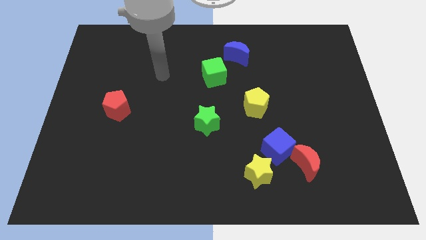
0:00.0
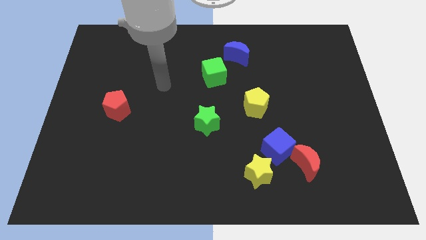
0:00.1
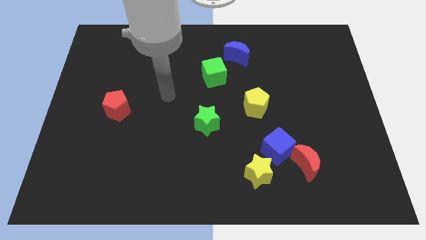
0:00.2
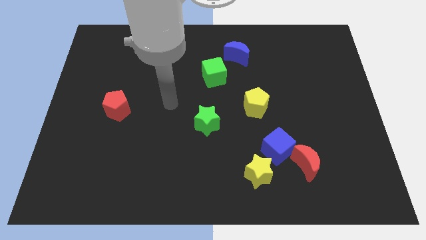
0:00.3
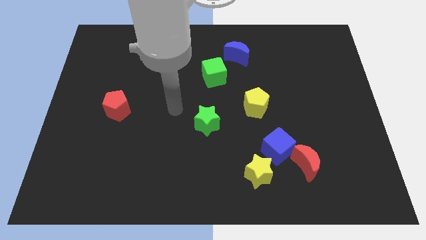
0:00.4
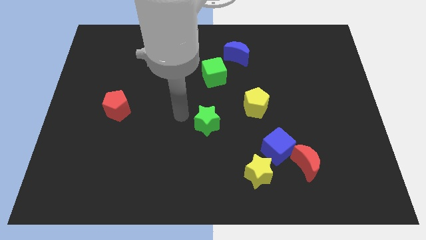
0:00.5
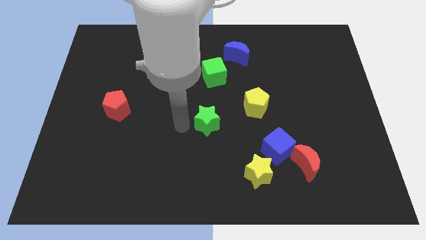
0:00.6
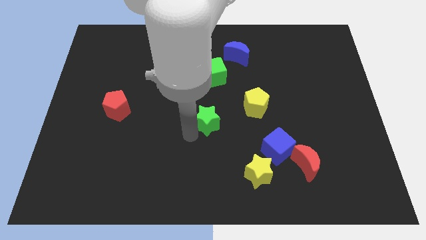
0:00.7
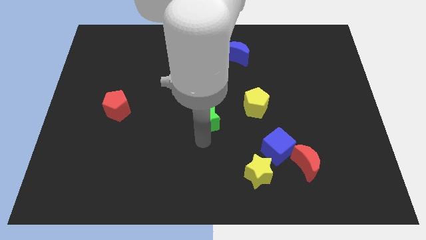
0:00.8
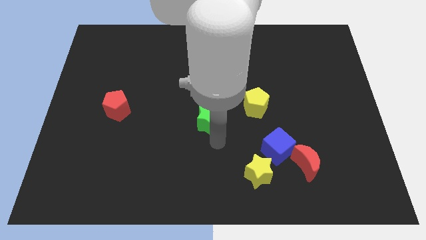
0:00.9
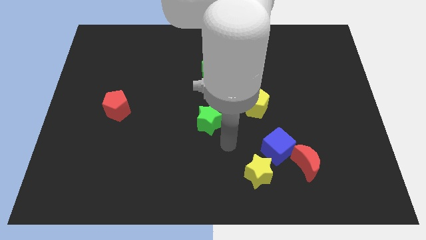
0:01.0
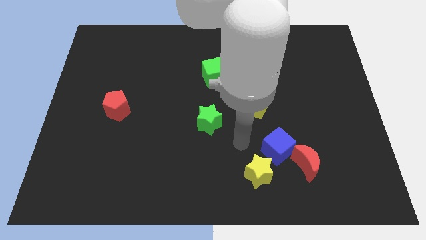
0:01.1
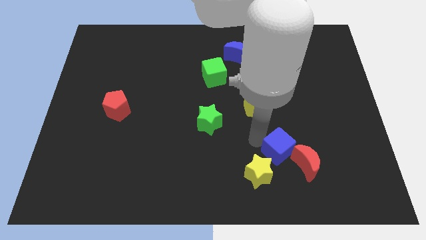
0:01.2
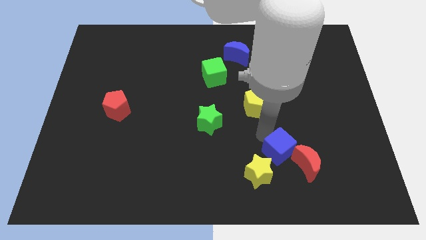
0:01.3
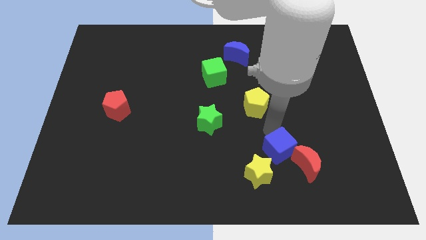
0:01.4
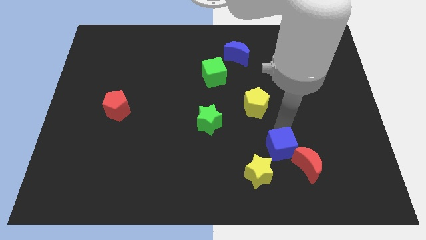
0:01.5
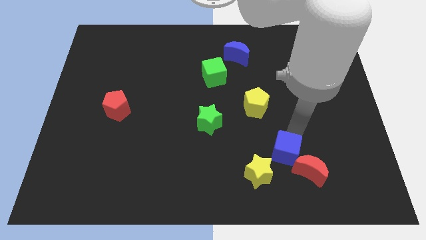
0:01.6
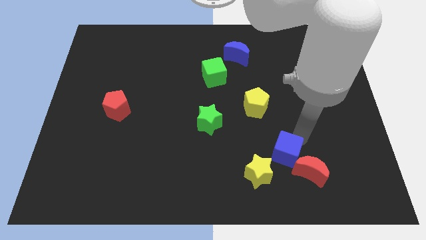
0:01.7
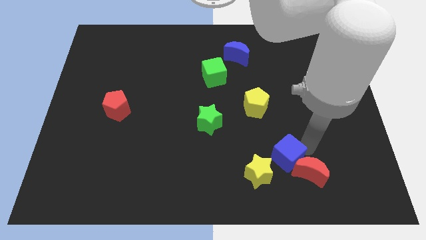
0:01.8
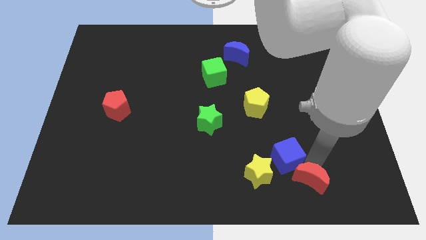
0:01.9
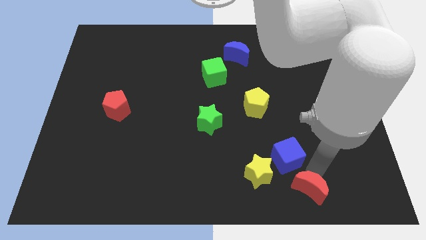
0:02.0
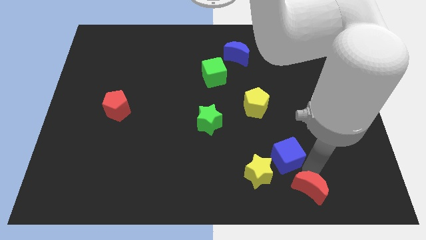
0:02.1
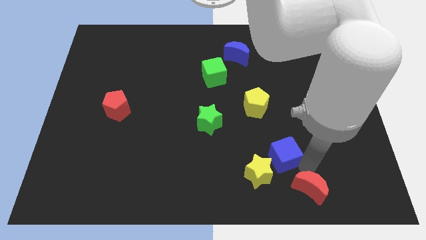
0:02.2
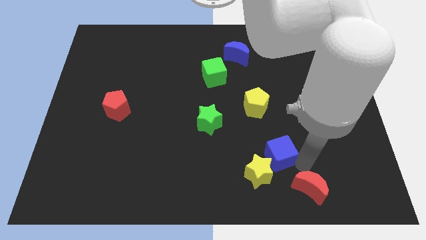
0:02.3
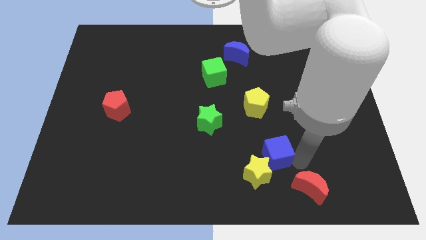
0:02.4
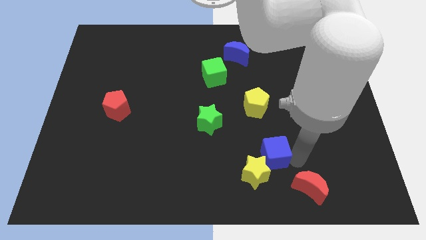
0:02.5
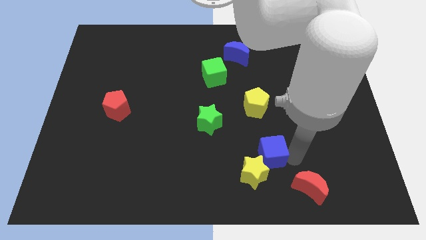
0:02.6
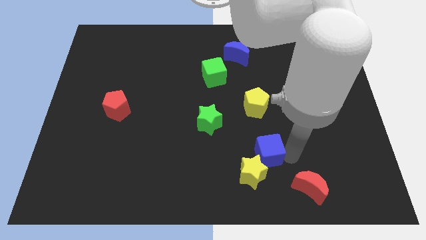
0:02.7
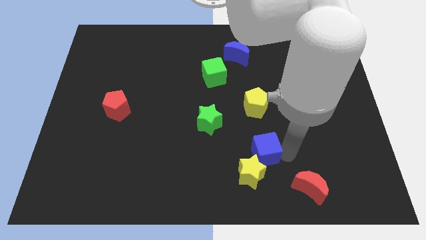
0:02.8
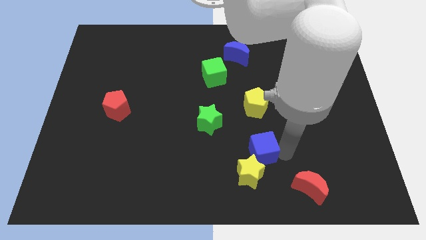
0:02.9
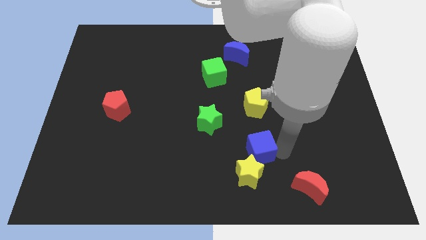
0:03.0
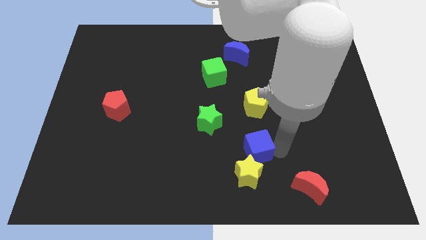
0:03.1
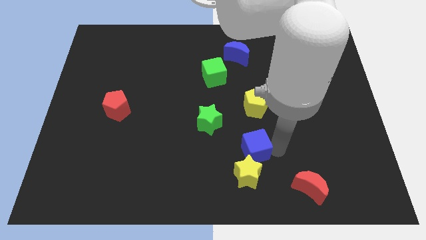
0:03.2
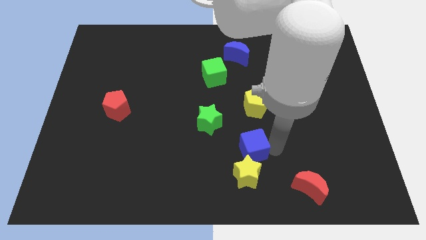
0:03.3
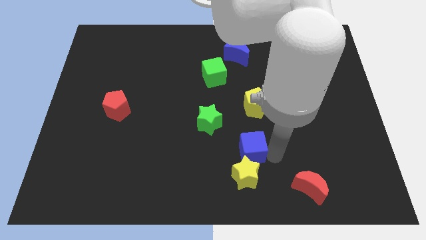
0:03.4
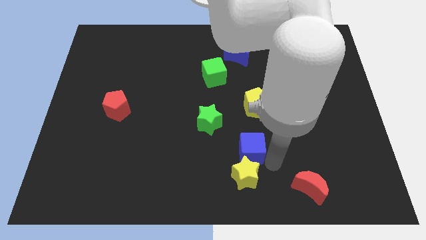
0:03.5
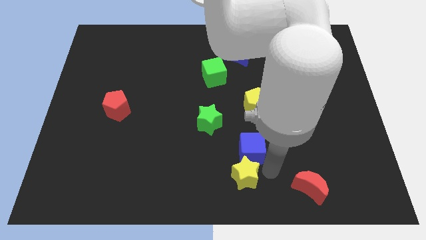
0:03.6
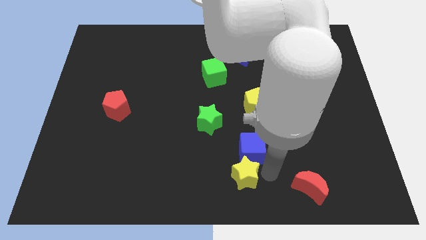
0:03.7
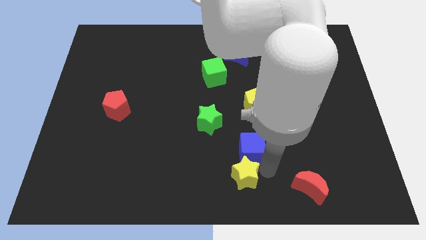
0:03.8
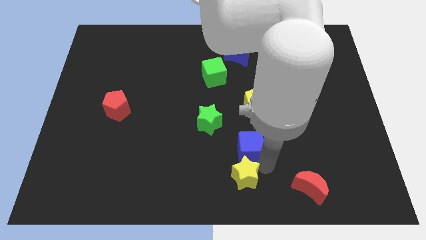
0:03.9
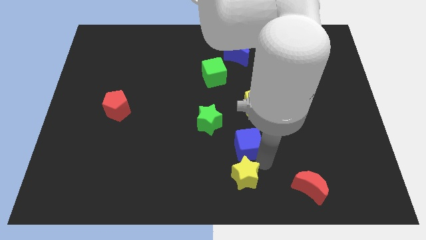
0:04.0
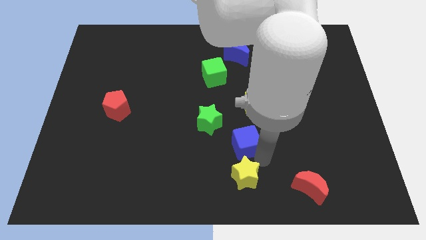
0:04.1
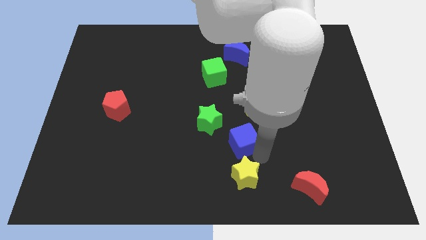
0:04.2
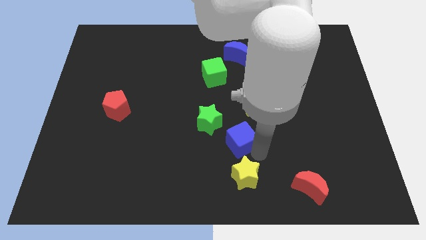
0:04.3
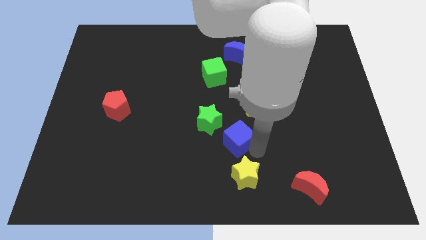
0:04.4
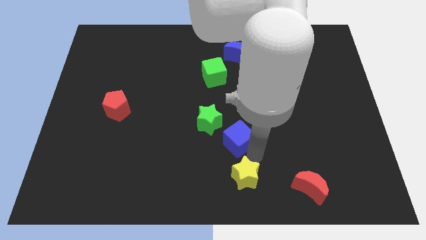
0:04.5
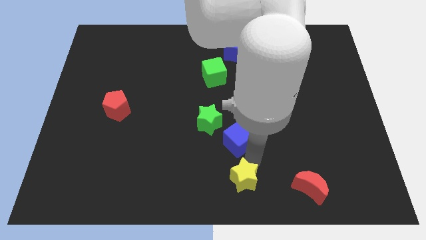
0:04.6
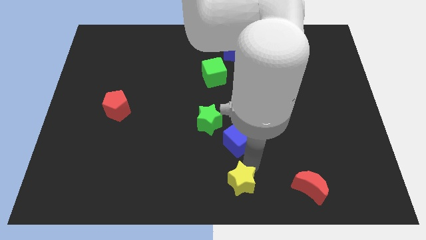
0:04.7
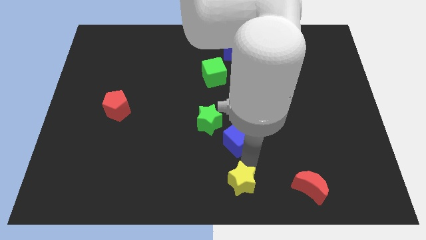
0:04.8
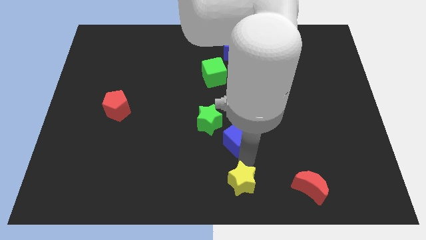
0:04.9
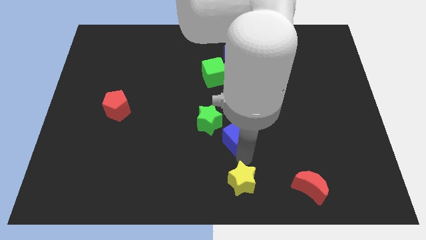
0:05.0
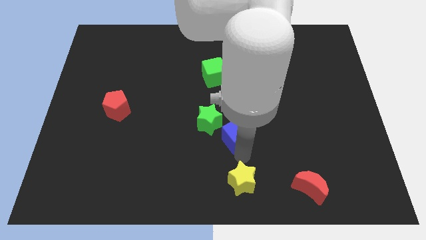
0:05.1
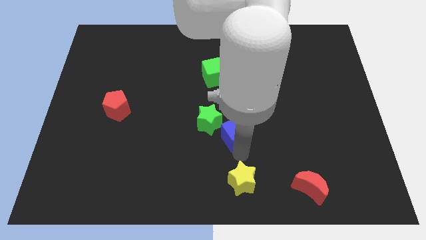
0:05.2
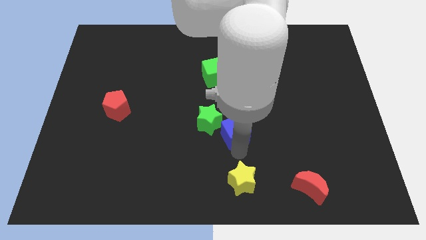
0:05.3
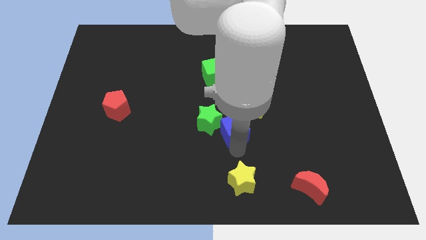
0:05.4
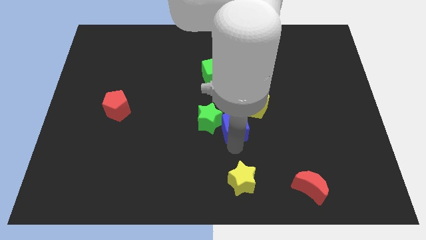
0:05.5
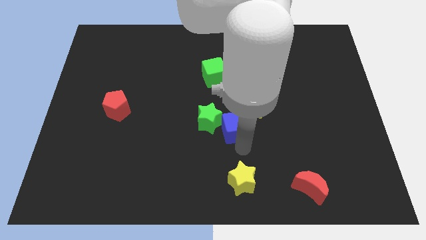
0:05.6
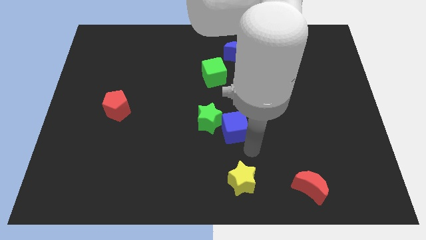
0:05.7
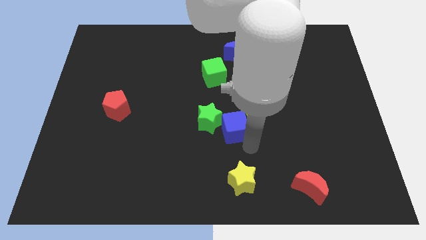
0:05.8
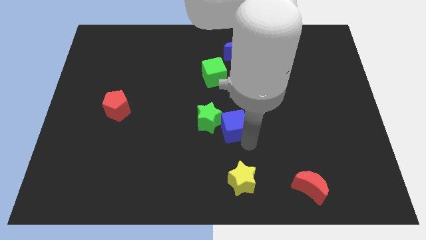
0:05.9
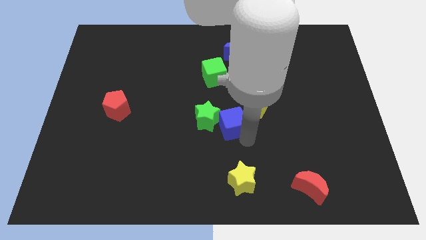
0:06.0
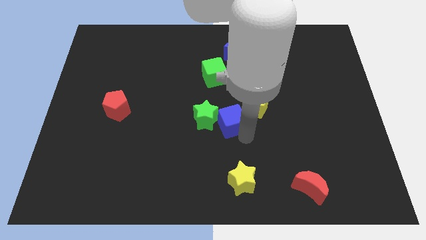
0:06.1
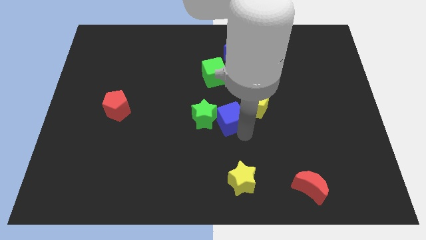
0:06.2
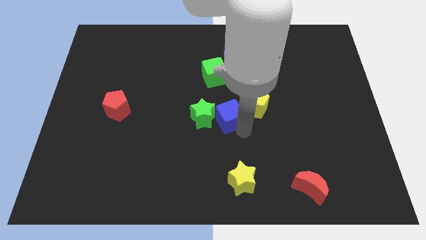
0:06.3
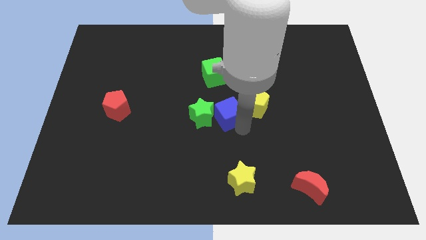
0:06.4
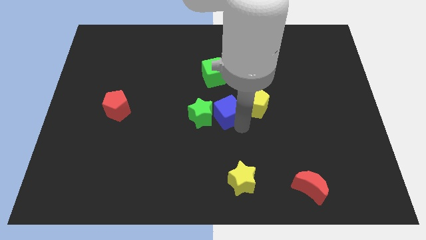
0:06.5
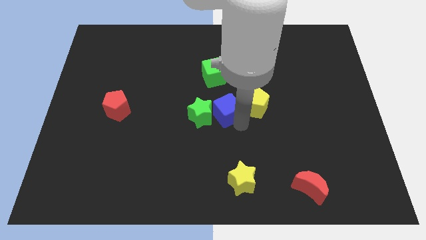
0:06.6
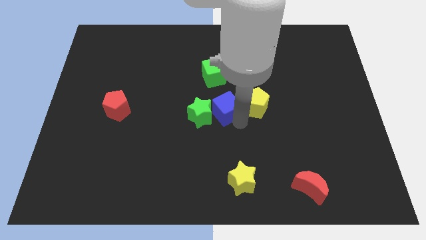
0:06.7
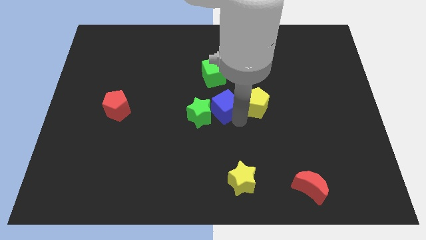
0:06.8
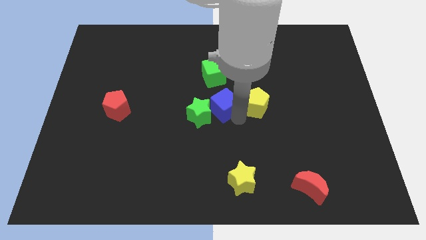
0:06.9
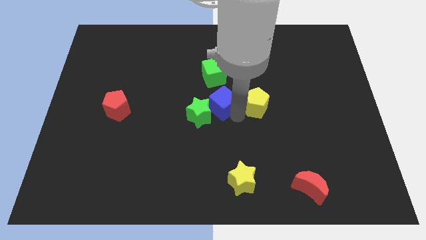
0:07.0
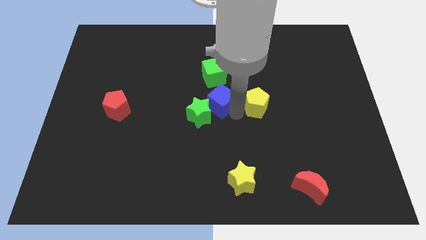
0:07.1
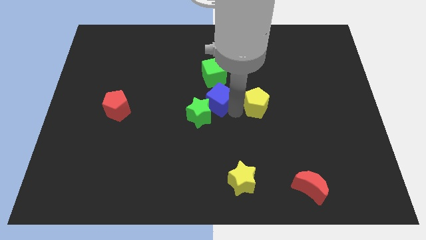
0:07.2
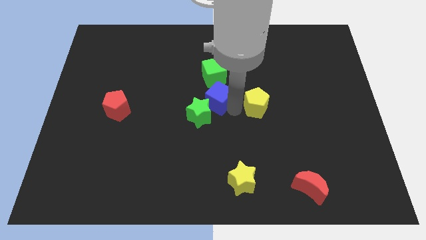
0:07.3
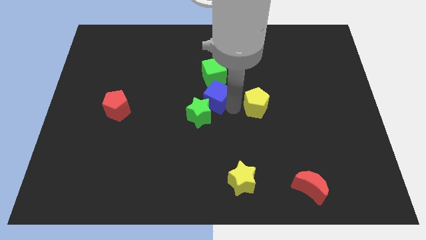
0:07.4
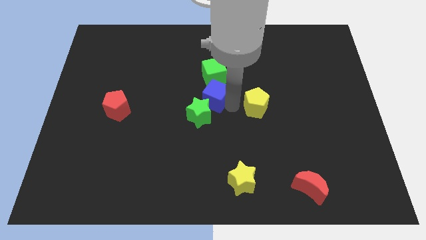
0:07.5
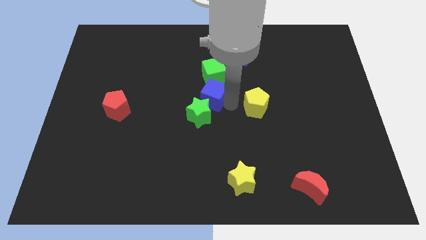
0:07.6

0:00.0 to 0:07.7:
push the blue cube up and left

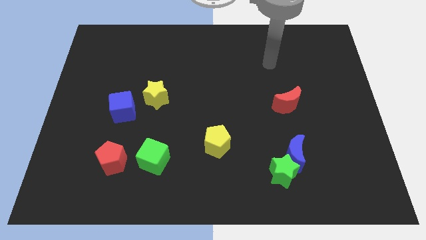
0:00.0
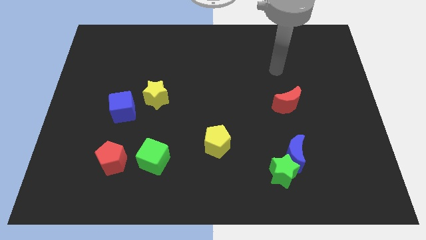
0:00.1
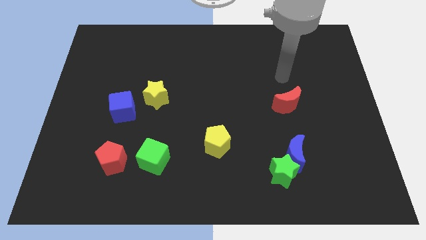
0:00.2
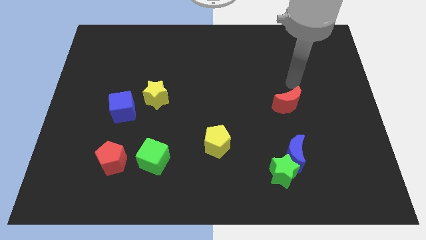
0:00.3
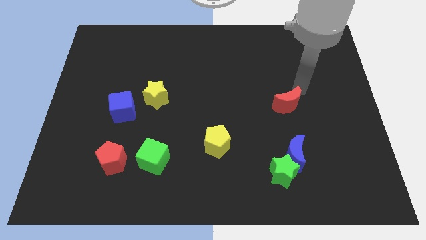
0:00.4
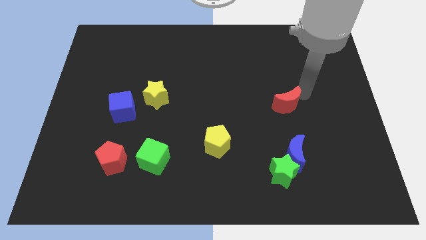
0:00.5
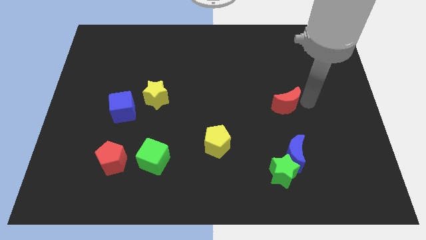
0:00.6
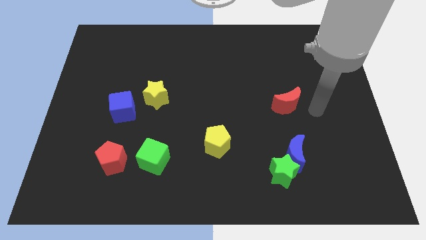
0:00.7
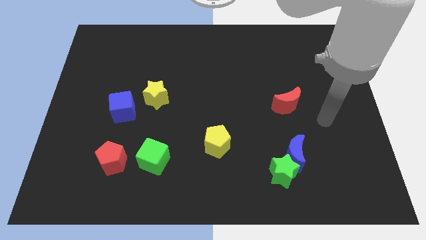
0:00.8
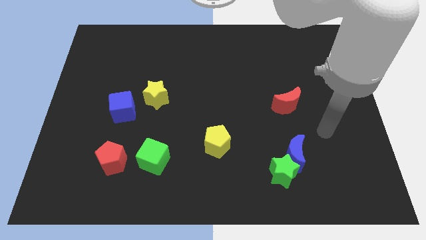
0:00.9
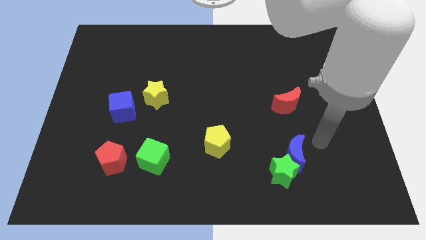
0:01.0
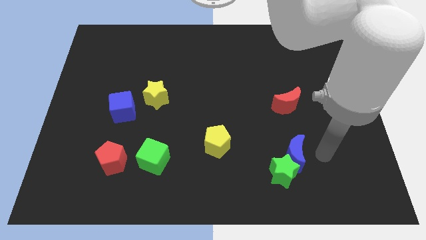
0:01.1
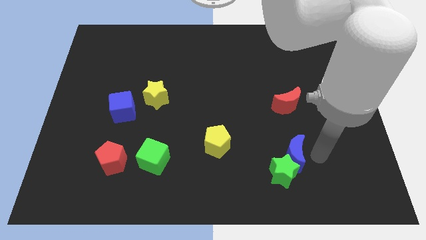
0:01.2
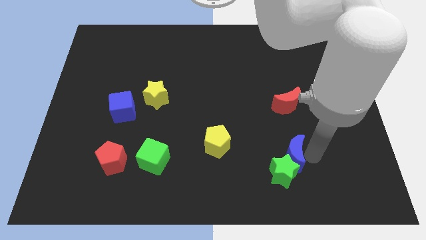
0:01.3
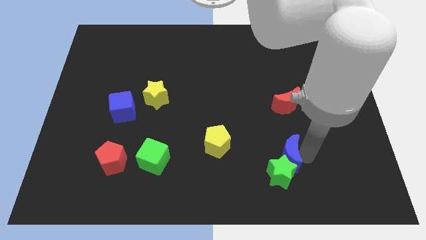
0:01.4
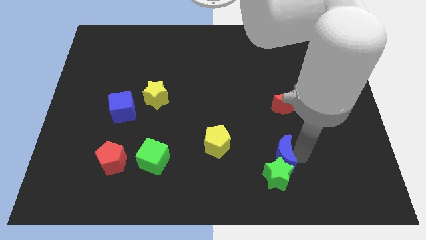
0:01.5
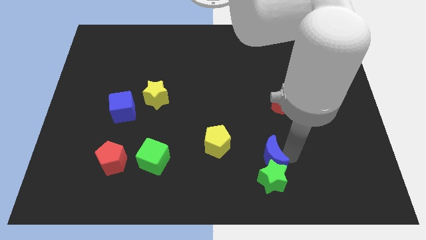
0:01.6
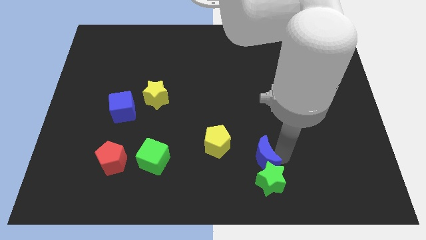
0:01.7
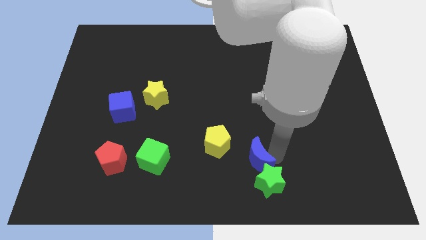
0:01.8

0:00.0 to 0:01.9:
push the blue moon a little left
